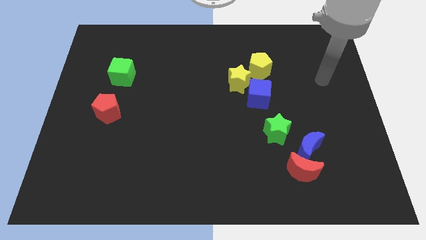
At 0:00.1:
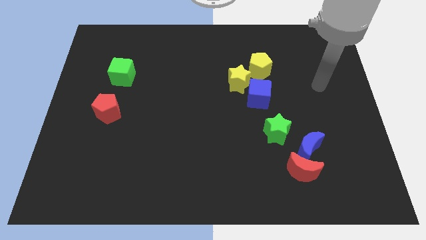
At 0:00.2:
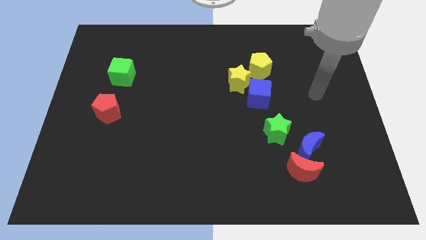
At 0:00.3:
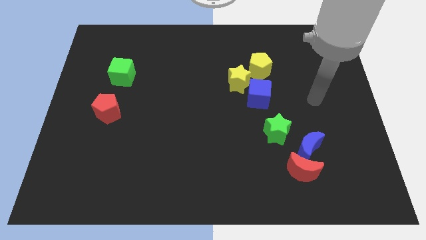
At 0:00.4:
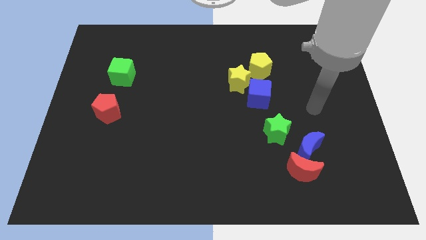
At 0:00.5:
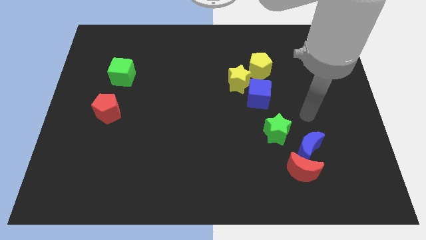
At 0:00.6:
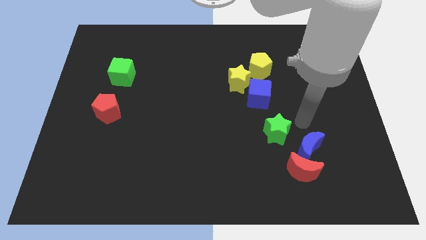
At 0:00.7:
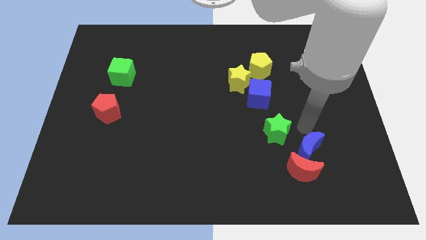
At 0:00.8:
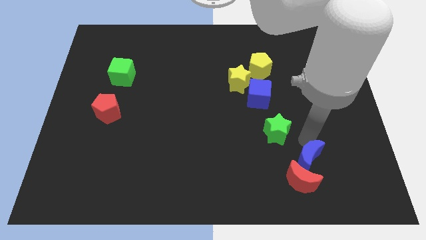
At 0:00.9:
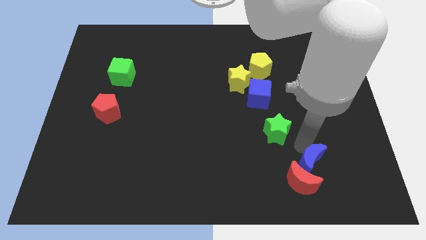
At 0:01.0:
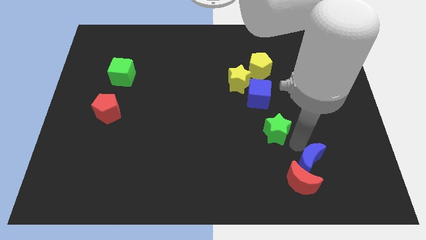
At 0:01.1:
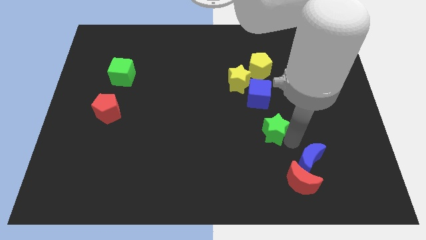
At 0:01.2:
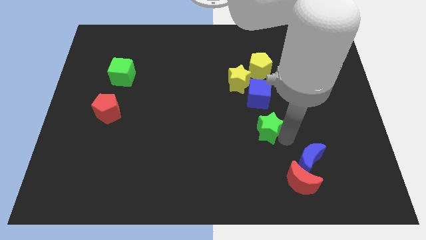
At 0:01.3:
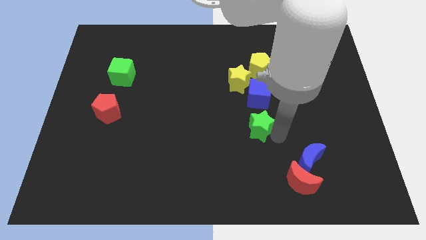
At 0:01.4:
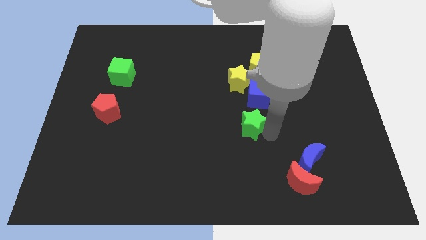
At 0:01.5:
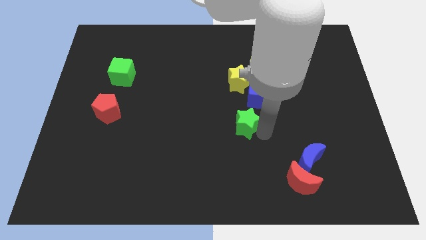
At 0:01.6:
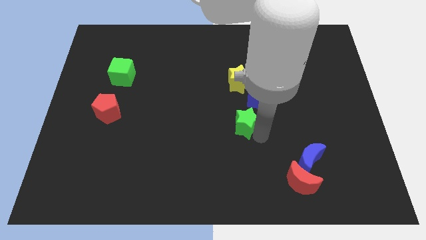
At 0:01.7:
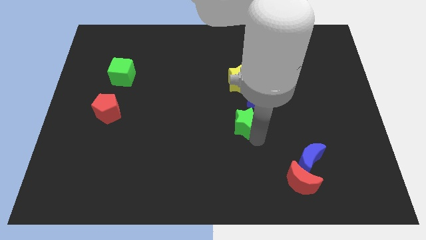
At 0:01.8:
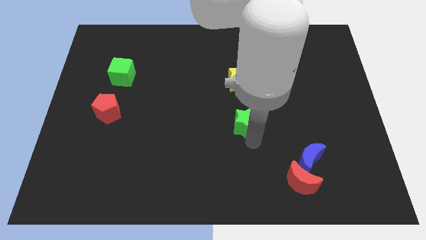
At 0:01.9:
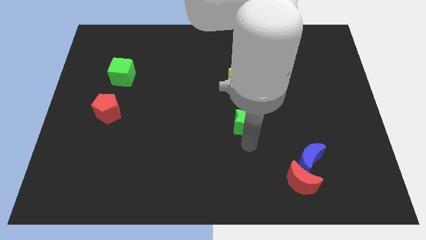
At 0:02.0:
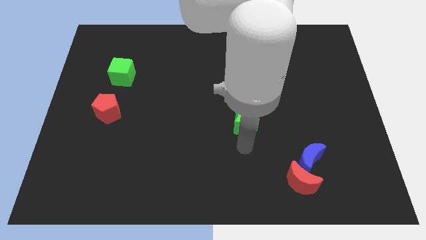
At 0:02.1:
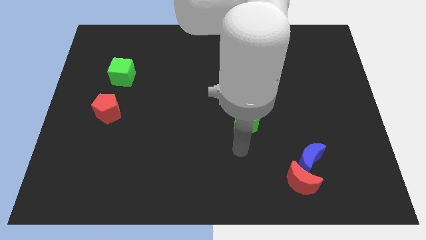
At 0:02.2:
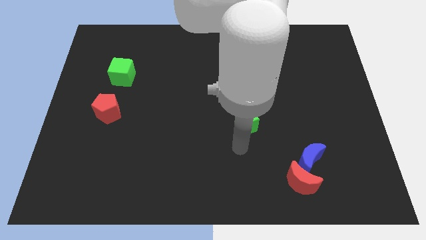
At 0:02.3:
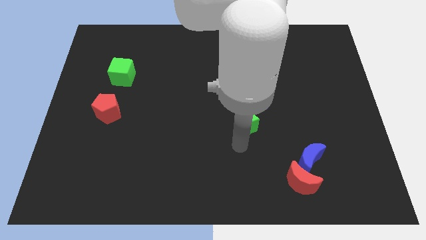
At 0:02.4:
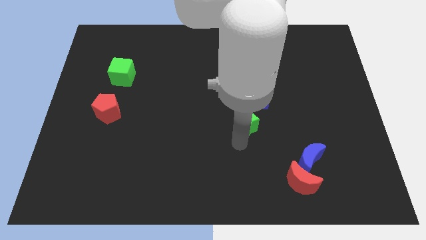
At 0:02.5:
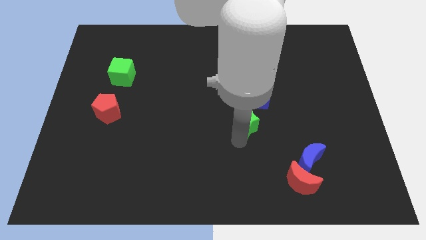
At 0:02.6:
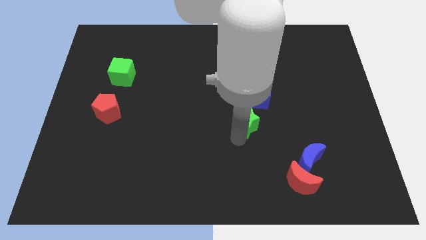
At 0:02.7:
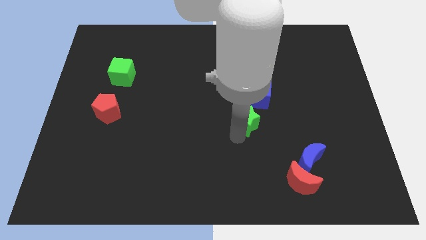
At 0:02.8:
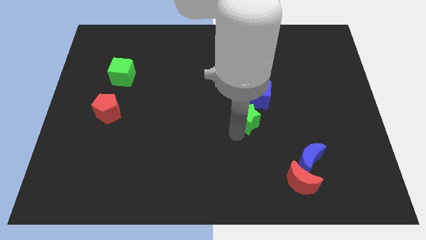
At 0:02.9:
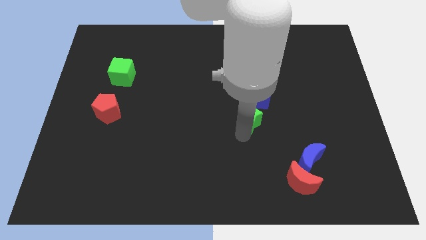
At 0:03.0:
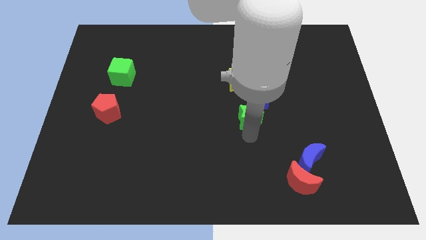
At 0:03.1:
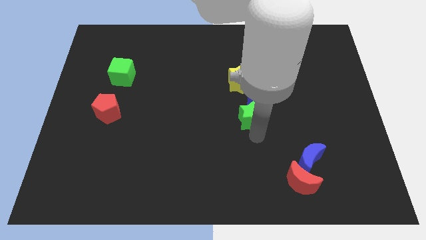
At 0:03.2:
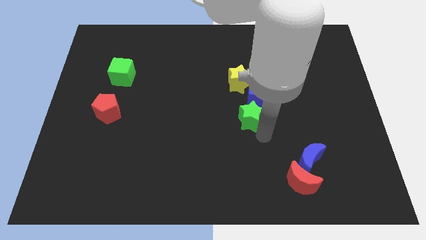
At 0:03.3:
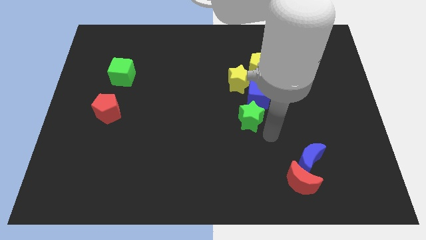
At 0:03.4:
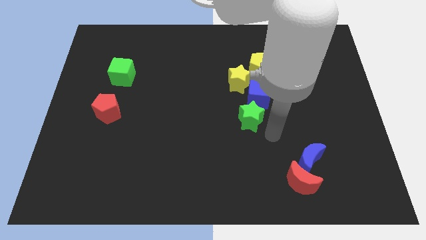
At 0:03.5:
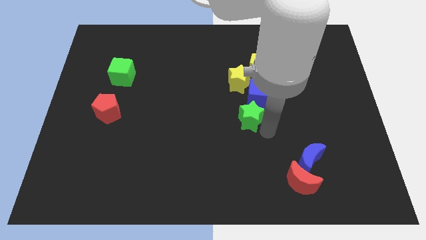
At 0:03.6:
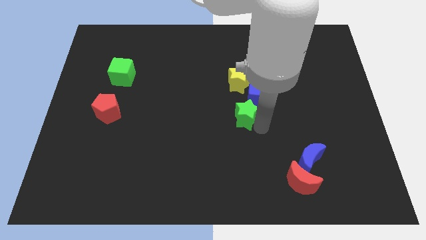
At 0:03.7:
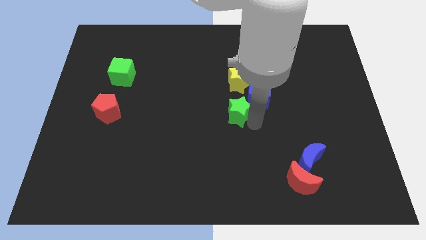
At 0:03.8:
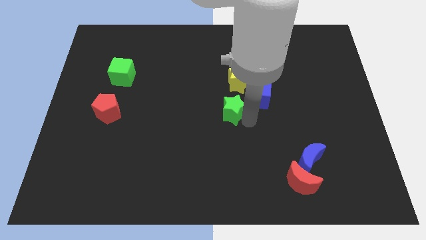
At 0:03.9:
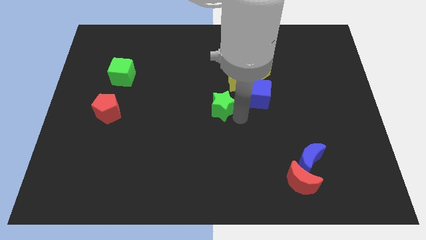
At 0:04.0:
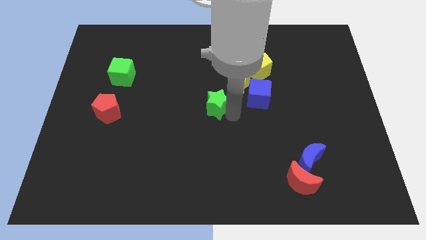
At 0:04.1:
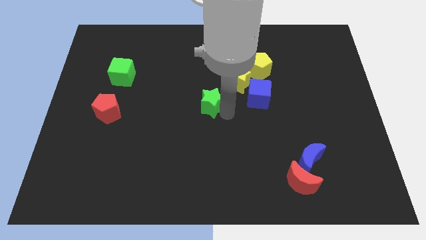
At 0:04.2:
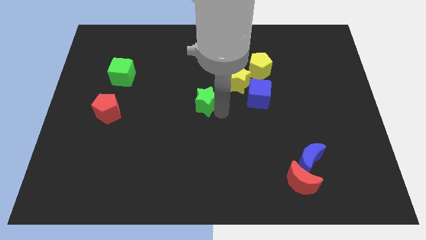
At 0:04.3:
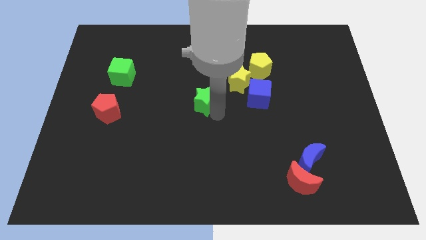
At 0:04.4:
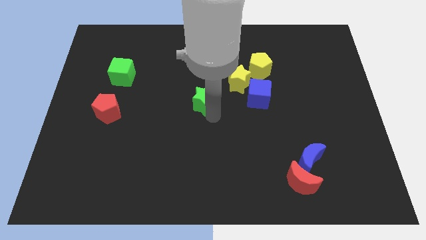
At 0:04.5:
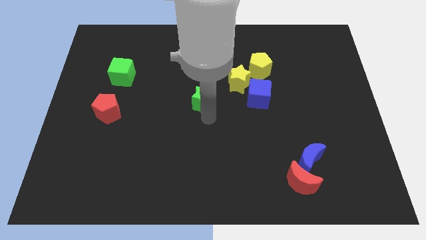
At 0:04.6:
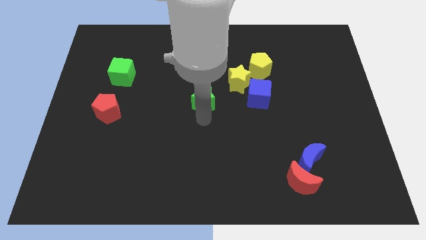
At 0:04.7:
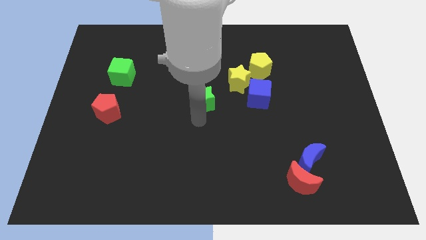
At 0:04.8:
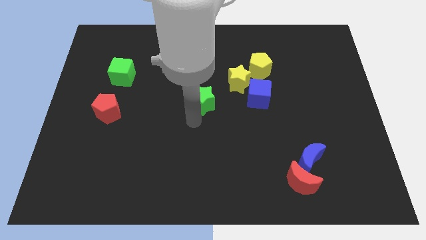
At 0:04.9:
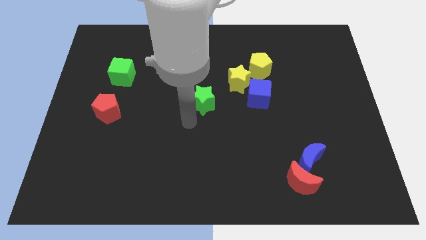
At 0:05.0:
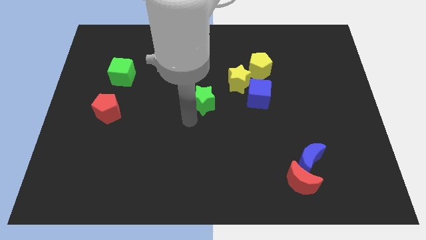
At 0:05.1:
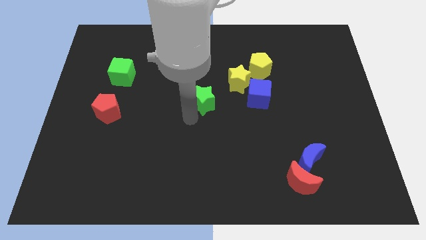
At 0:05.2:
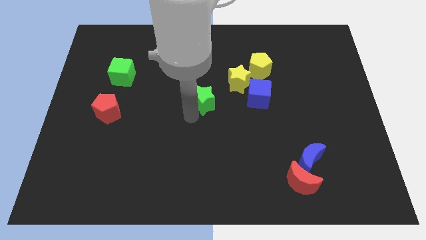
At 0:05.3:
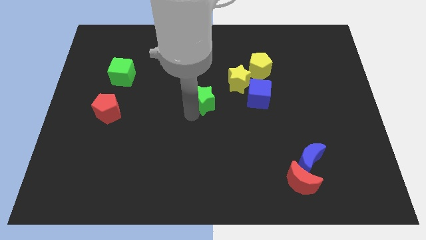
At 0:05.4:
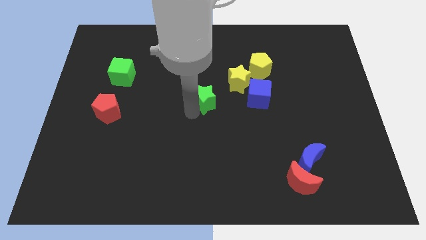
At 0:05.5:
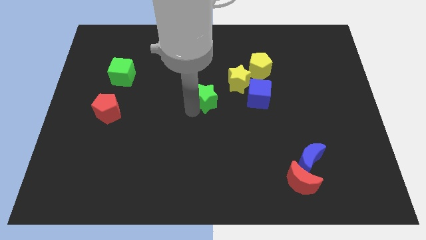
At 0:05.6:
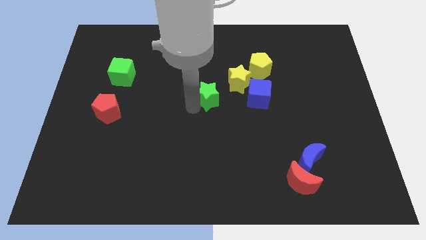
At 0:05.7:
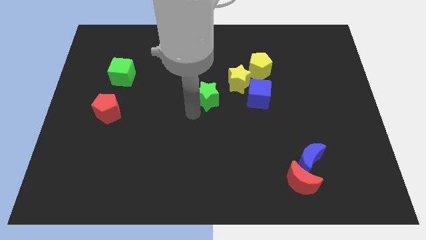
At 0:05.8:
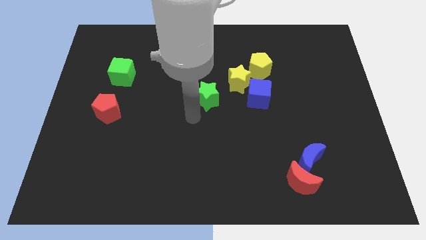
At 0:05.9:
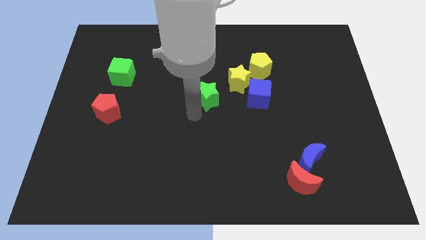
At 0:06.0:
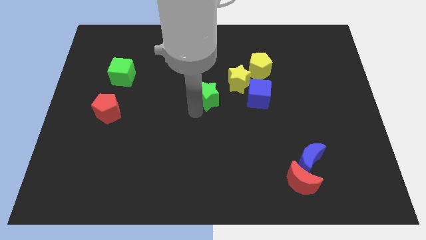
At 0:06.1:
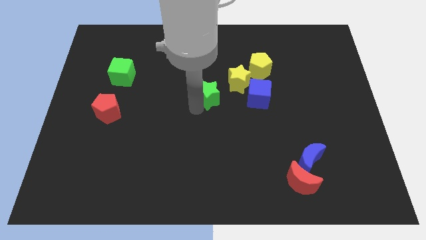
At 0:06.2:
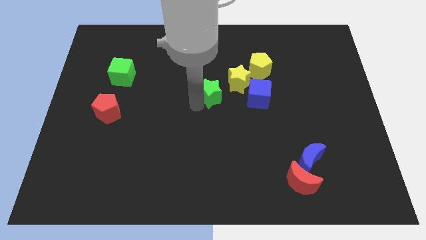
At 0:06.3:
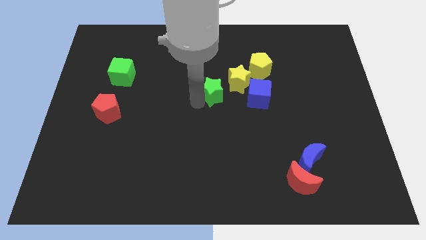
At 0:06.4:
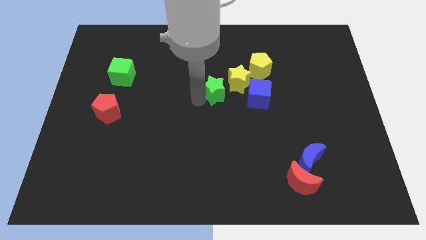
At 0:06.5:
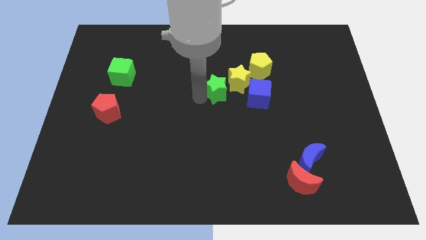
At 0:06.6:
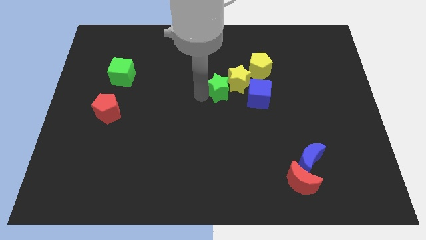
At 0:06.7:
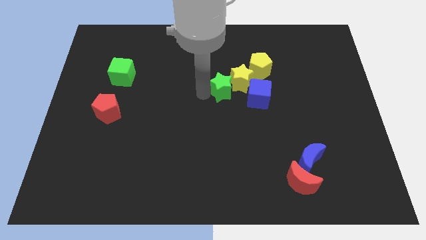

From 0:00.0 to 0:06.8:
slide the green star to the top left side of the blue cube

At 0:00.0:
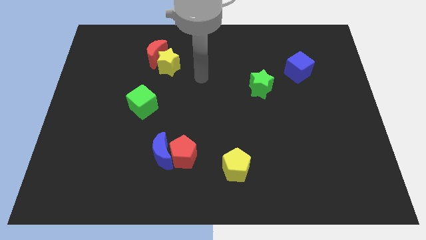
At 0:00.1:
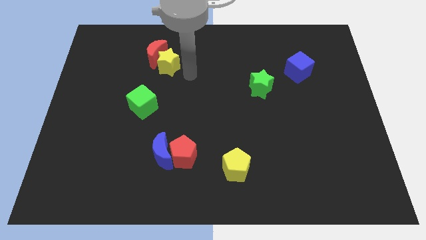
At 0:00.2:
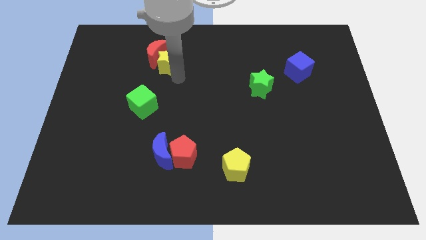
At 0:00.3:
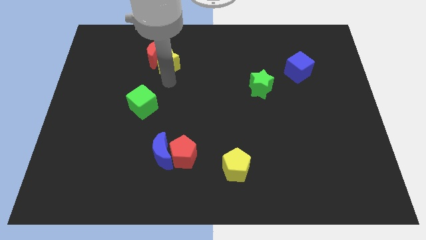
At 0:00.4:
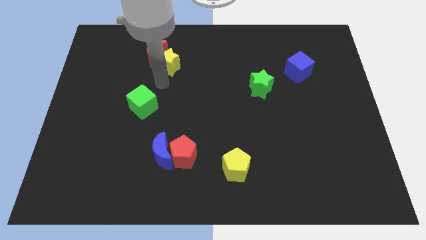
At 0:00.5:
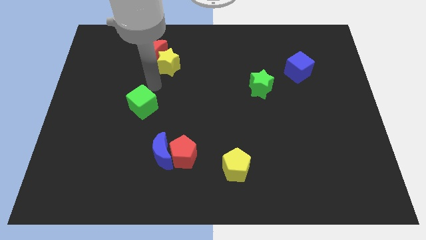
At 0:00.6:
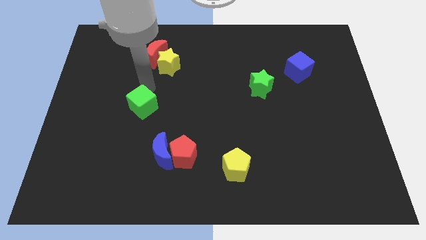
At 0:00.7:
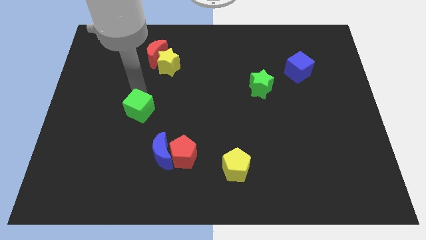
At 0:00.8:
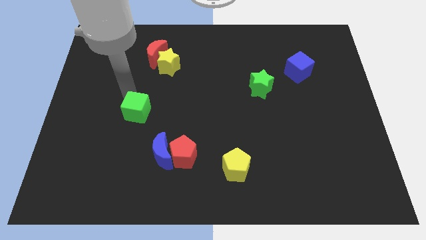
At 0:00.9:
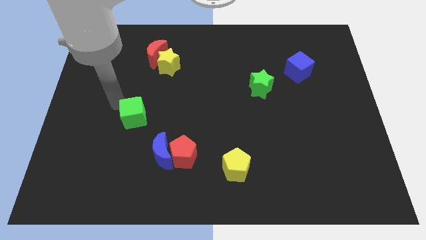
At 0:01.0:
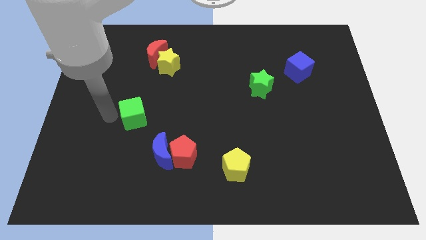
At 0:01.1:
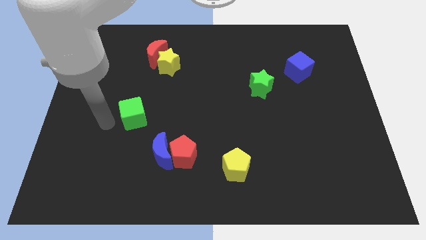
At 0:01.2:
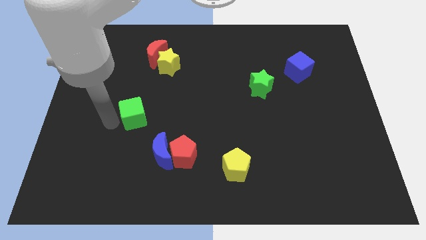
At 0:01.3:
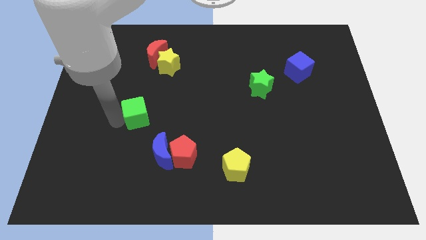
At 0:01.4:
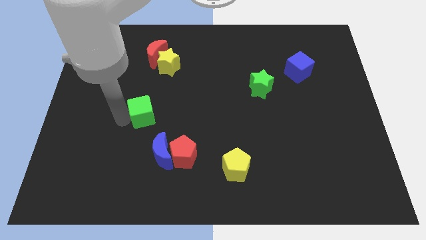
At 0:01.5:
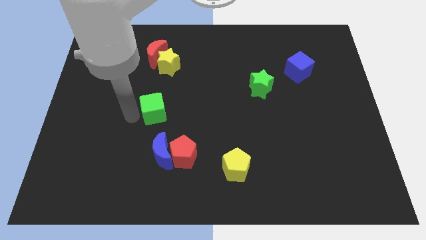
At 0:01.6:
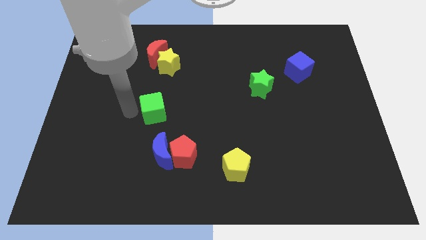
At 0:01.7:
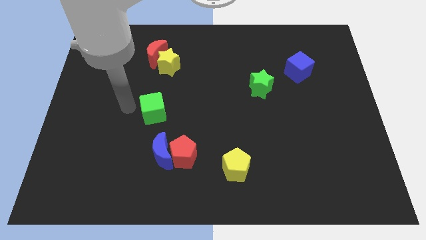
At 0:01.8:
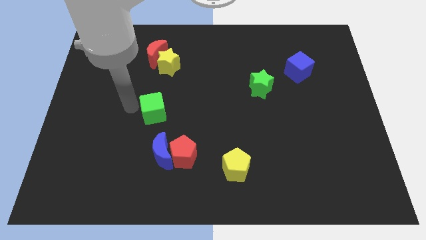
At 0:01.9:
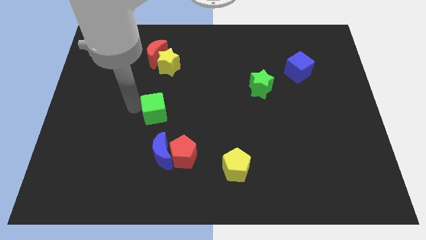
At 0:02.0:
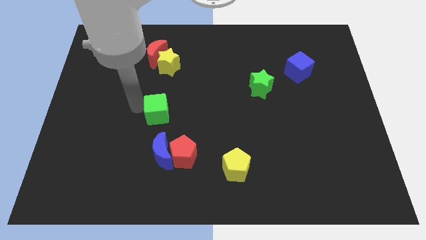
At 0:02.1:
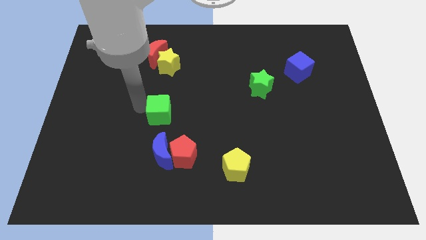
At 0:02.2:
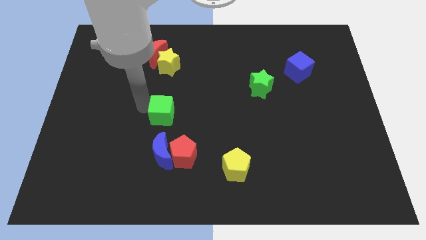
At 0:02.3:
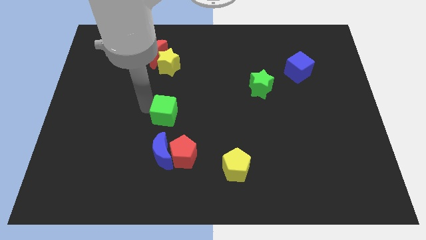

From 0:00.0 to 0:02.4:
put the green cube to the top of the red pentagon
